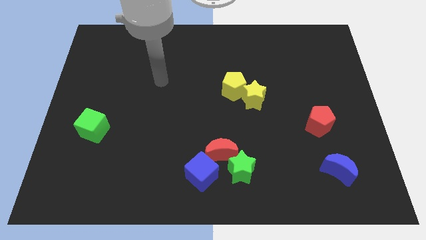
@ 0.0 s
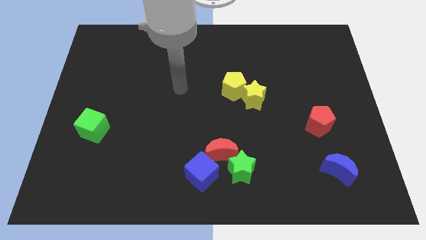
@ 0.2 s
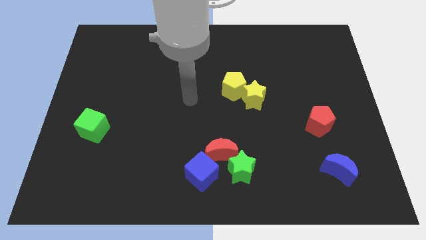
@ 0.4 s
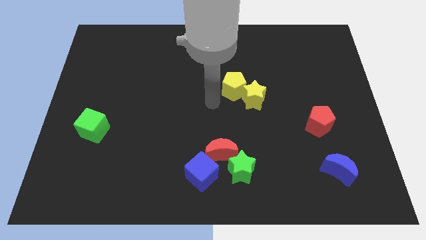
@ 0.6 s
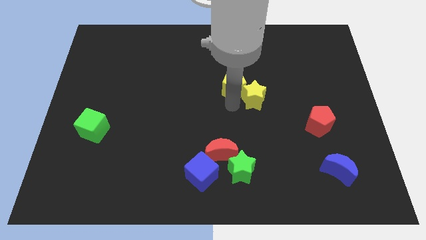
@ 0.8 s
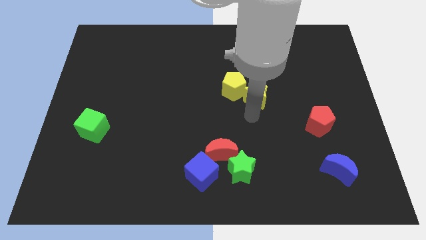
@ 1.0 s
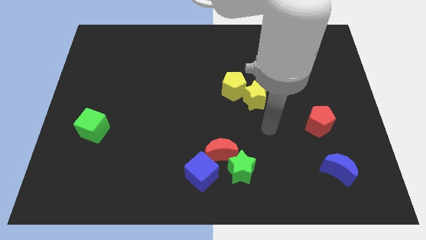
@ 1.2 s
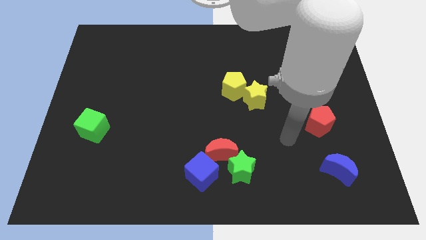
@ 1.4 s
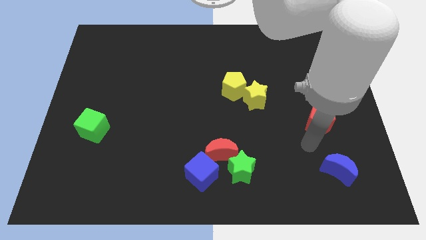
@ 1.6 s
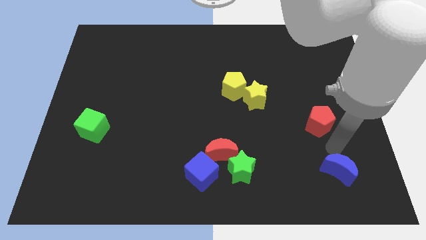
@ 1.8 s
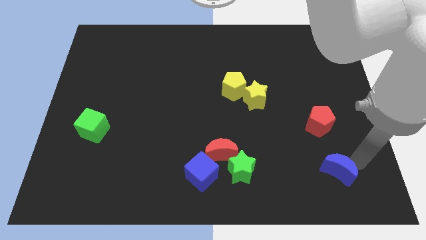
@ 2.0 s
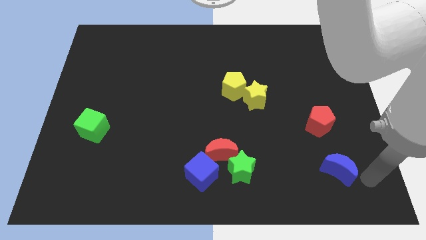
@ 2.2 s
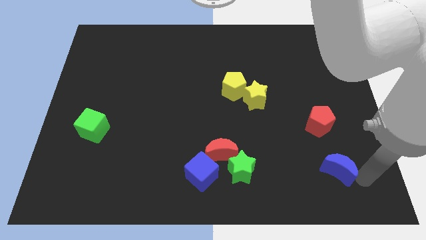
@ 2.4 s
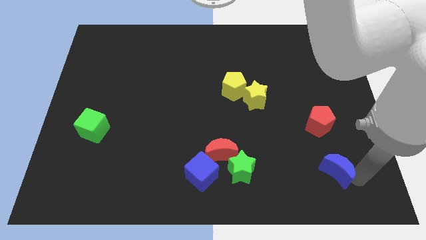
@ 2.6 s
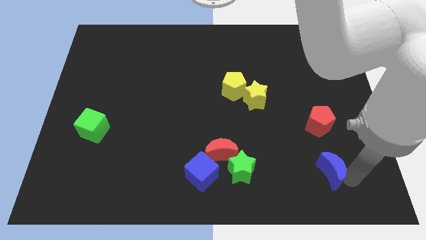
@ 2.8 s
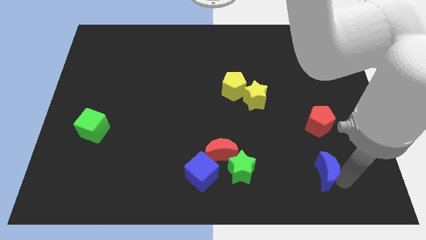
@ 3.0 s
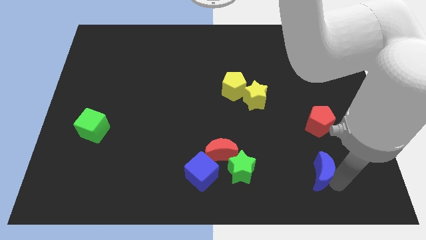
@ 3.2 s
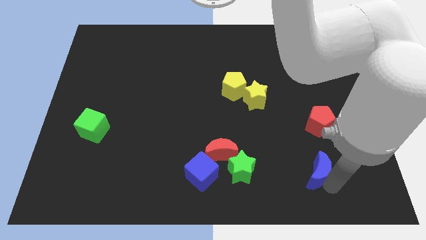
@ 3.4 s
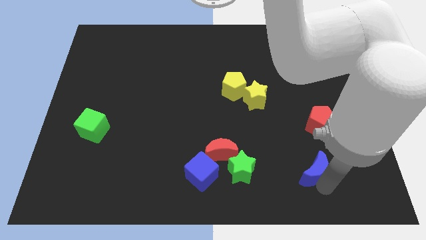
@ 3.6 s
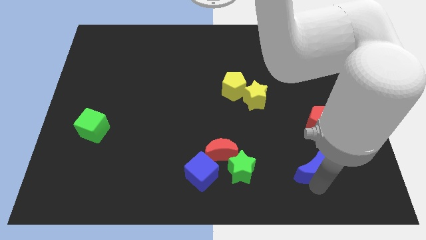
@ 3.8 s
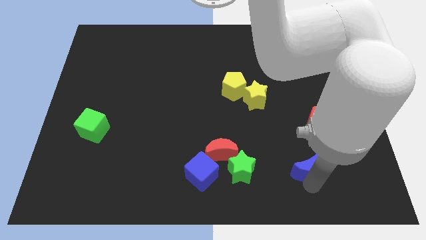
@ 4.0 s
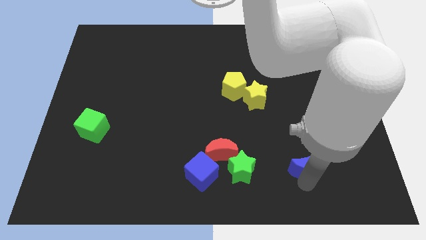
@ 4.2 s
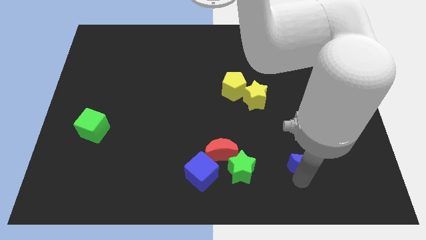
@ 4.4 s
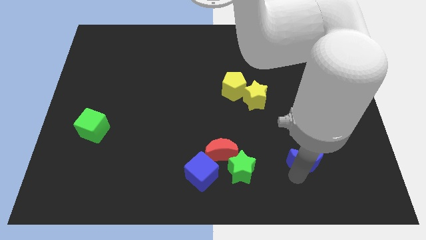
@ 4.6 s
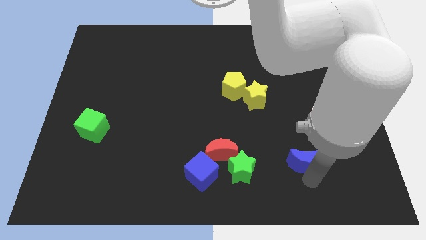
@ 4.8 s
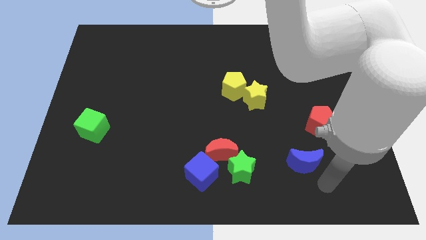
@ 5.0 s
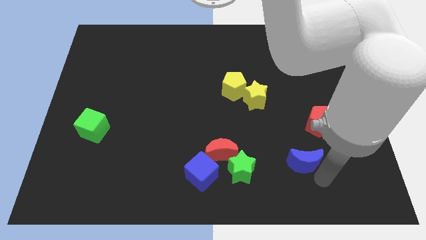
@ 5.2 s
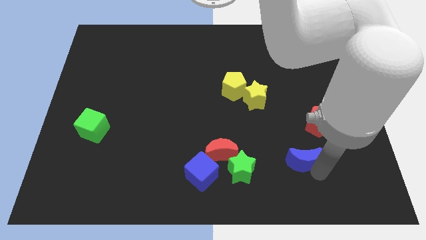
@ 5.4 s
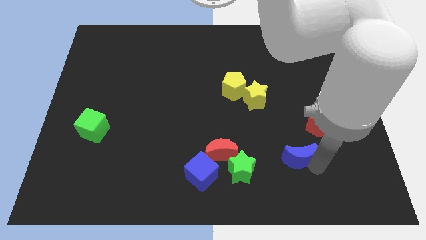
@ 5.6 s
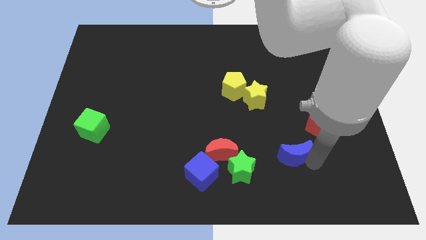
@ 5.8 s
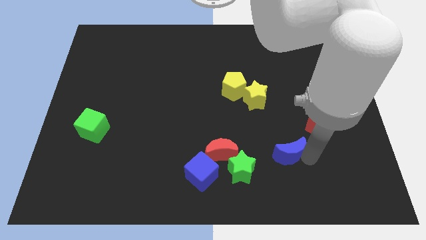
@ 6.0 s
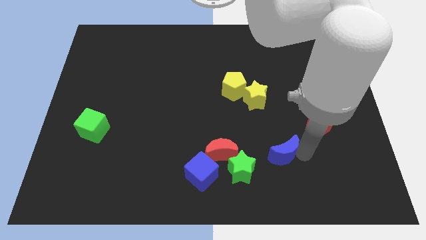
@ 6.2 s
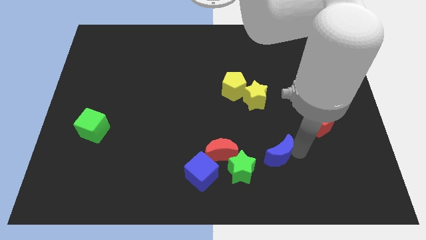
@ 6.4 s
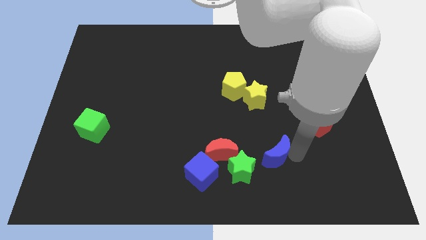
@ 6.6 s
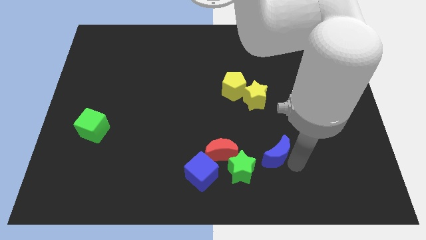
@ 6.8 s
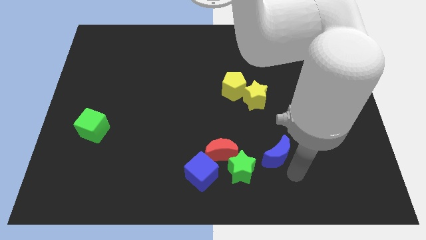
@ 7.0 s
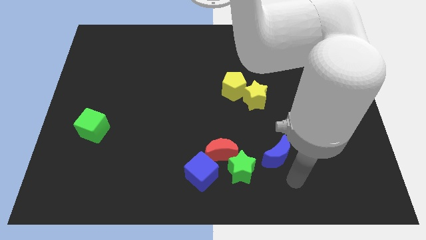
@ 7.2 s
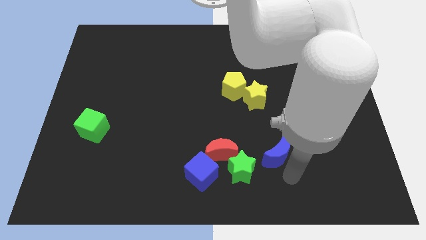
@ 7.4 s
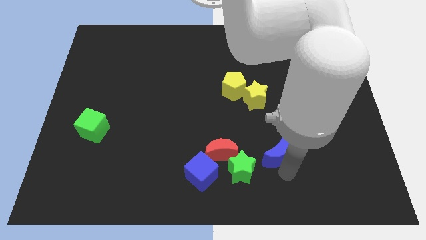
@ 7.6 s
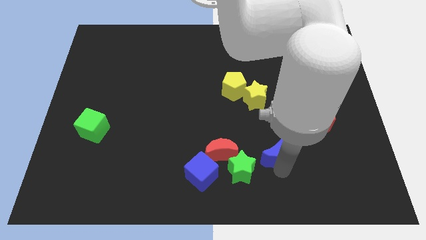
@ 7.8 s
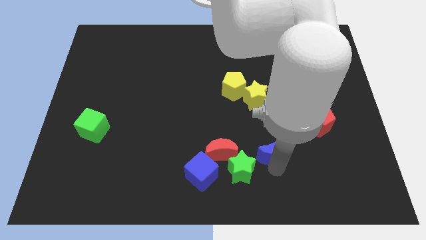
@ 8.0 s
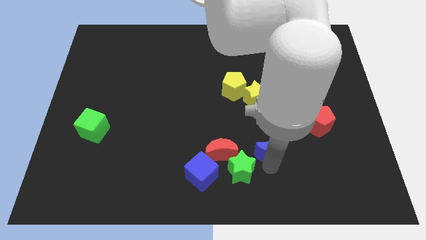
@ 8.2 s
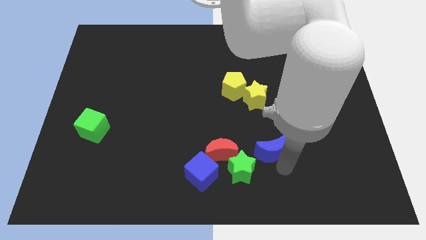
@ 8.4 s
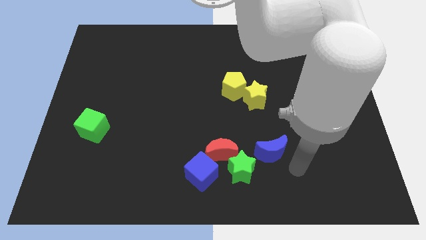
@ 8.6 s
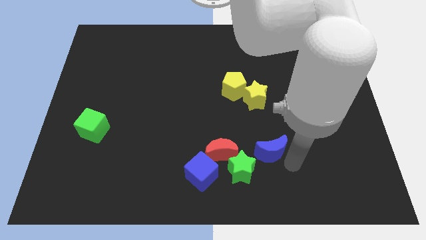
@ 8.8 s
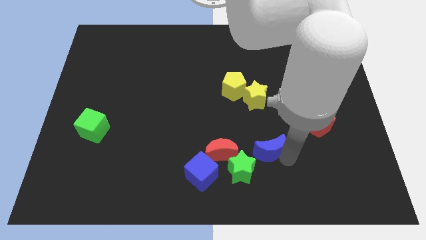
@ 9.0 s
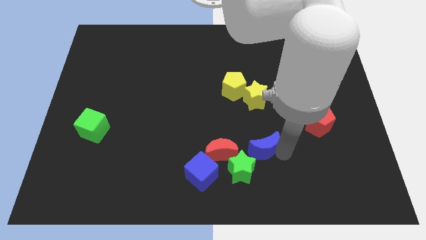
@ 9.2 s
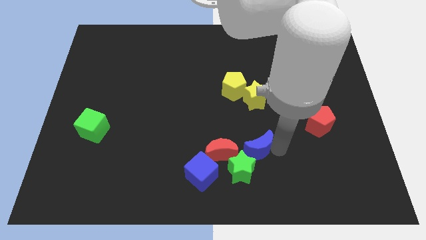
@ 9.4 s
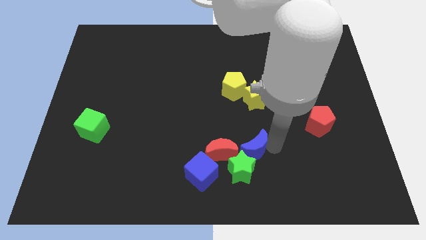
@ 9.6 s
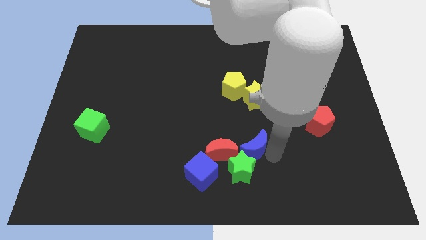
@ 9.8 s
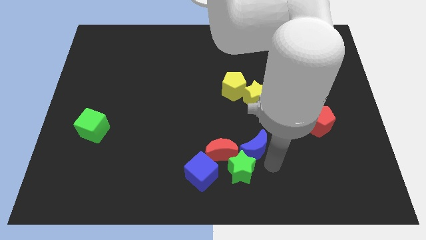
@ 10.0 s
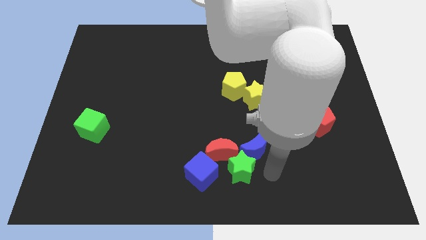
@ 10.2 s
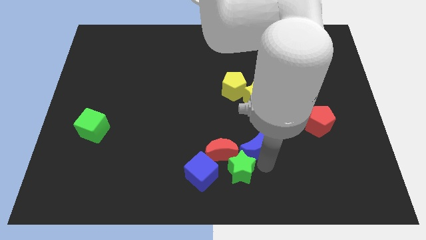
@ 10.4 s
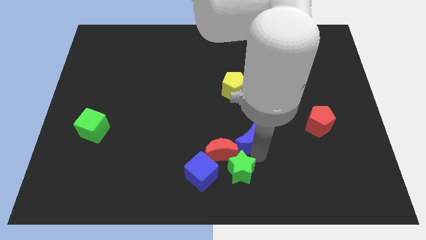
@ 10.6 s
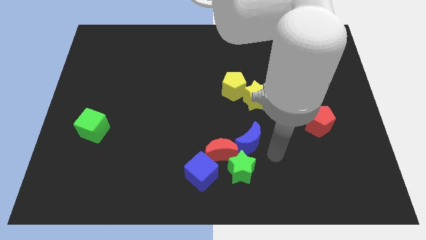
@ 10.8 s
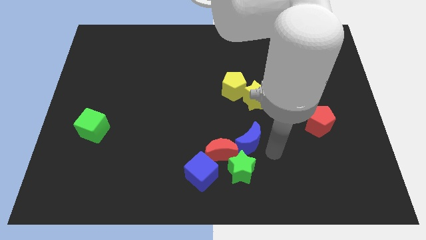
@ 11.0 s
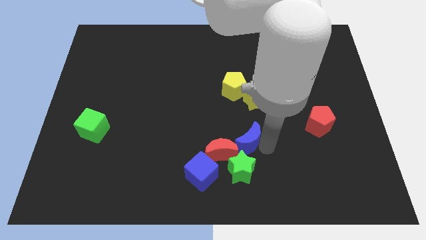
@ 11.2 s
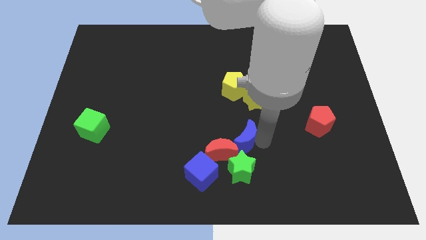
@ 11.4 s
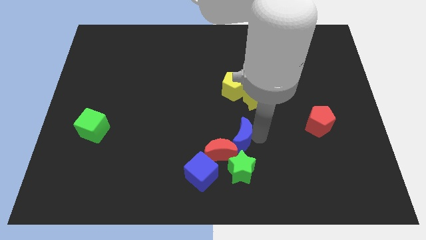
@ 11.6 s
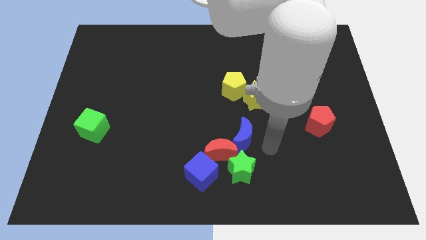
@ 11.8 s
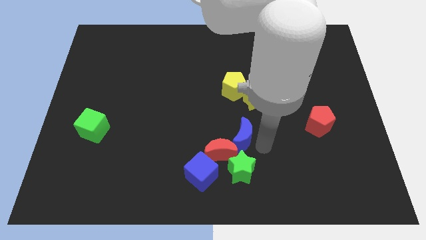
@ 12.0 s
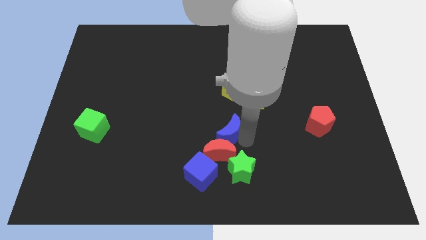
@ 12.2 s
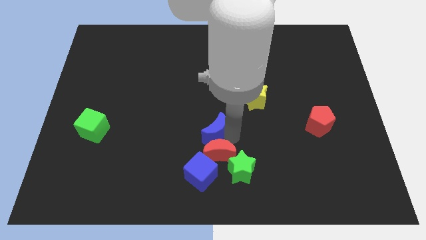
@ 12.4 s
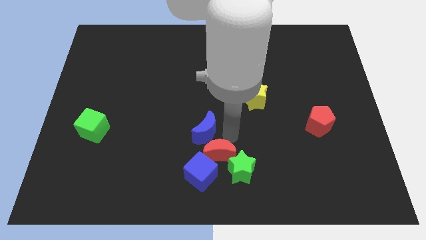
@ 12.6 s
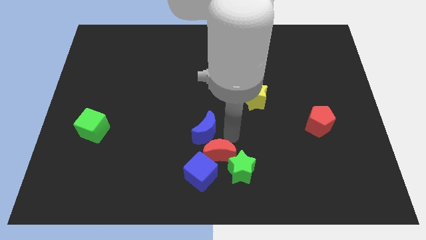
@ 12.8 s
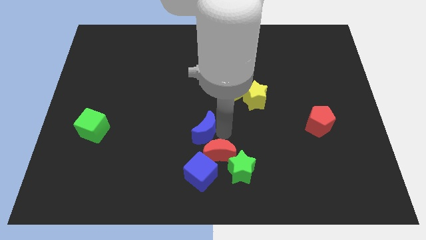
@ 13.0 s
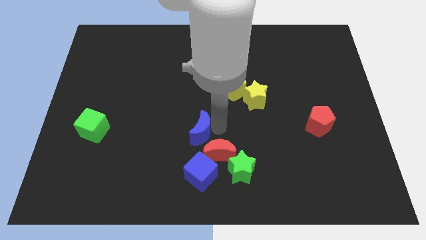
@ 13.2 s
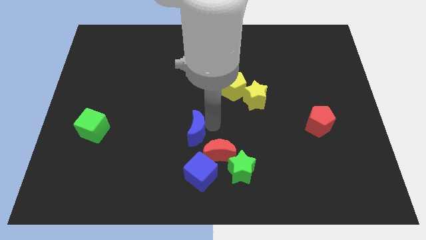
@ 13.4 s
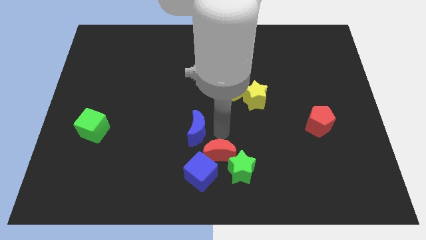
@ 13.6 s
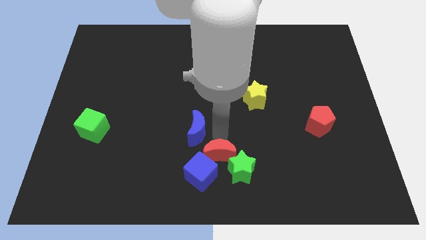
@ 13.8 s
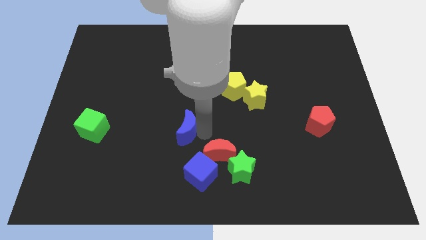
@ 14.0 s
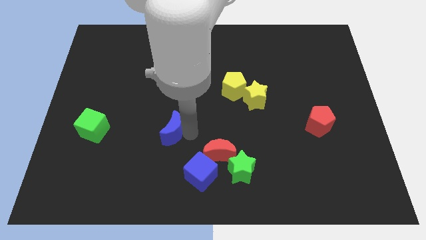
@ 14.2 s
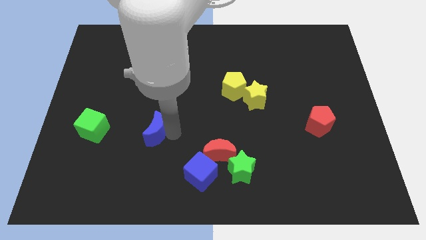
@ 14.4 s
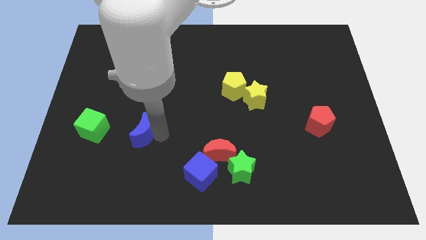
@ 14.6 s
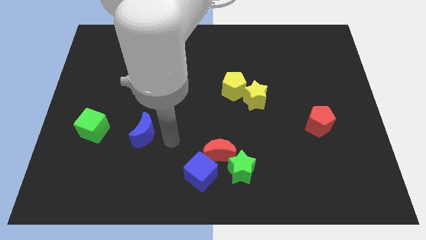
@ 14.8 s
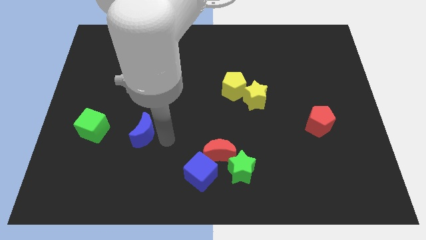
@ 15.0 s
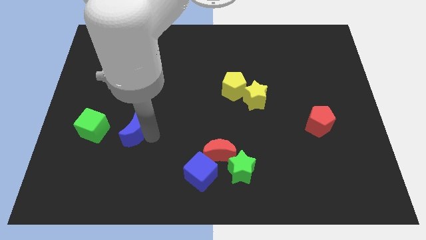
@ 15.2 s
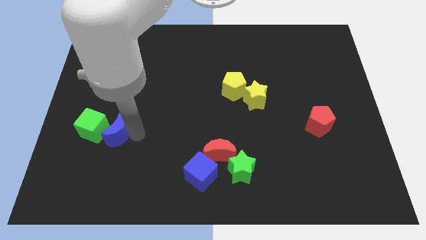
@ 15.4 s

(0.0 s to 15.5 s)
put the blue moon towards the green cube
